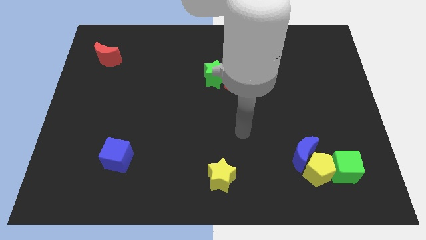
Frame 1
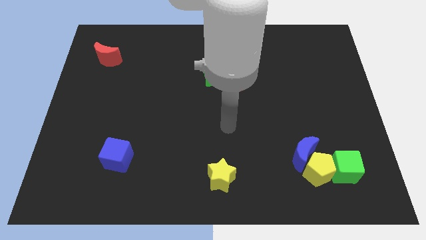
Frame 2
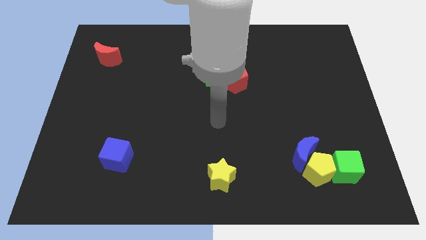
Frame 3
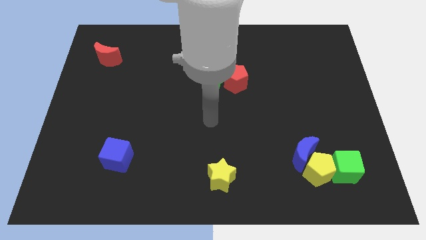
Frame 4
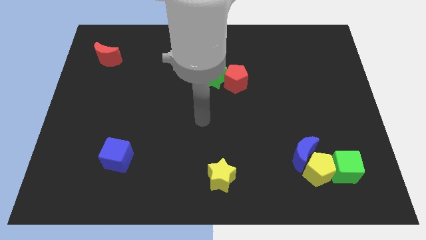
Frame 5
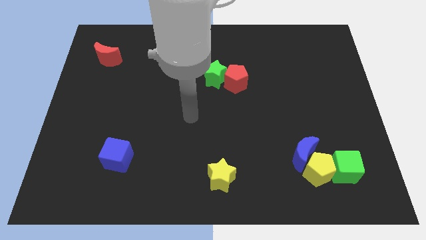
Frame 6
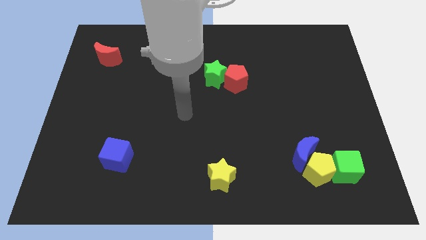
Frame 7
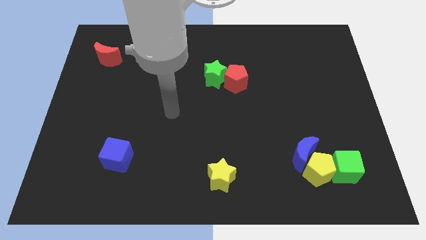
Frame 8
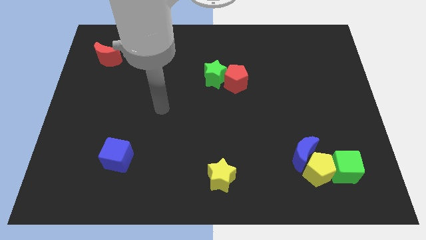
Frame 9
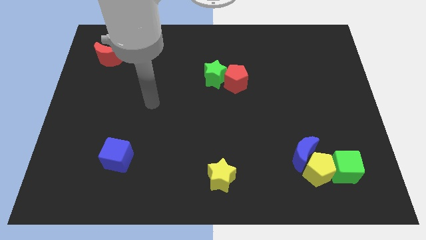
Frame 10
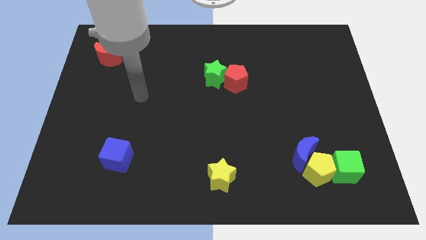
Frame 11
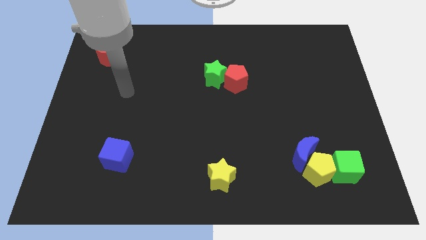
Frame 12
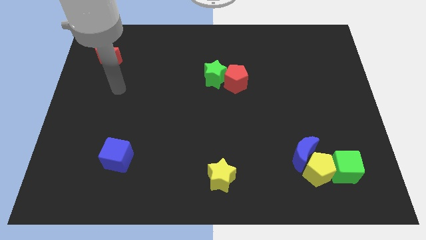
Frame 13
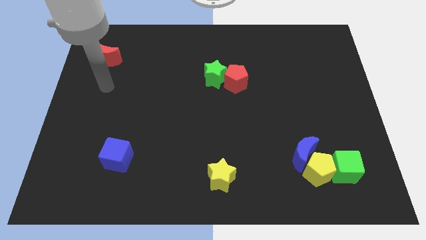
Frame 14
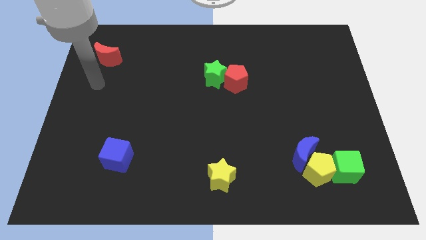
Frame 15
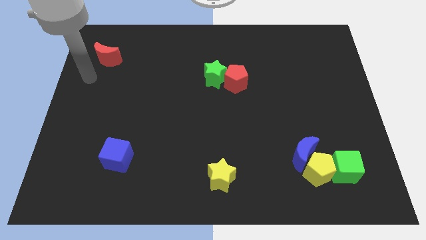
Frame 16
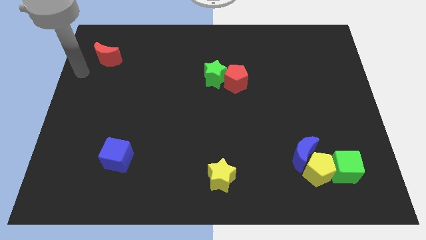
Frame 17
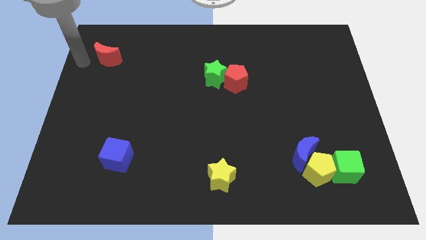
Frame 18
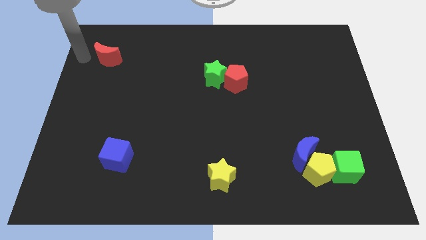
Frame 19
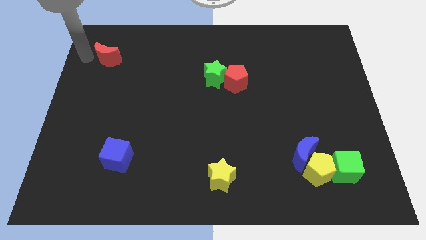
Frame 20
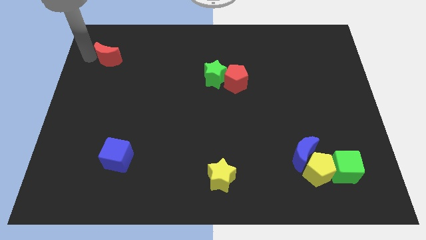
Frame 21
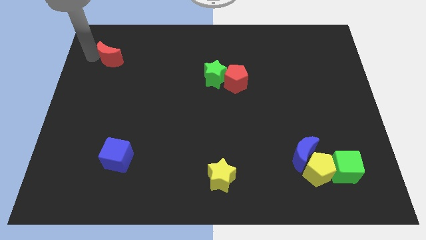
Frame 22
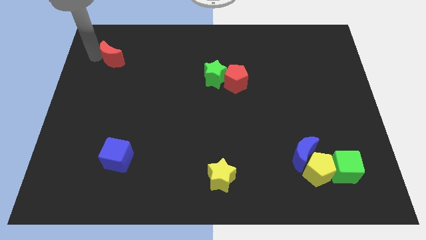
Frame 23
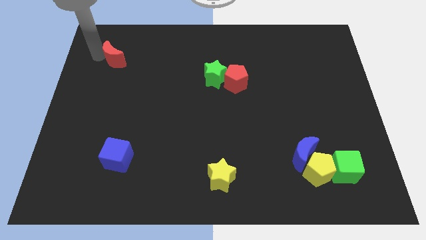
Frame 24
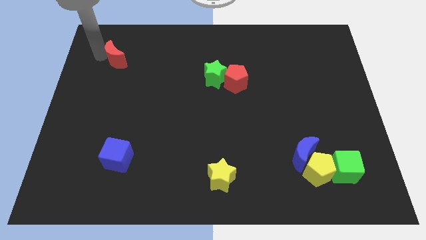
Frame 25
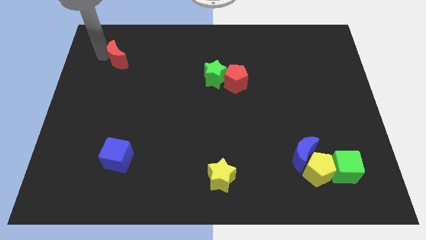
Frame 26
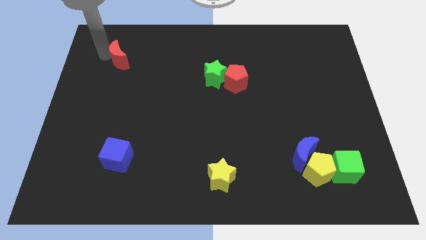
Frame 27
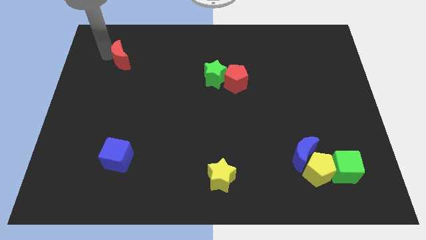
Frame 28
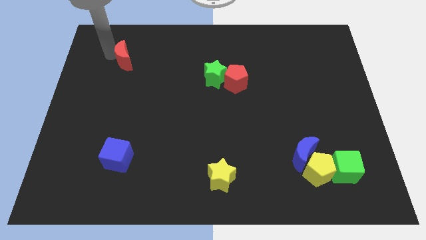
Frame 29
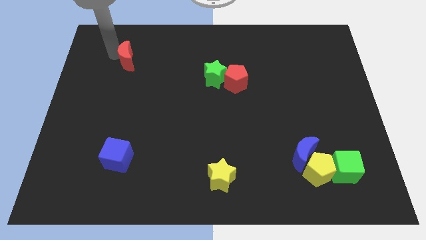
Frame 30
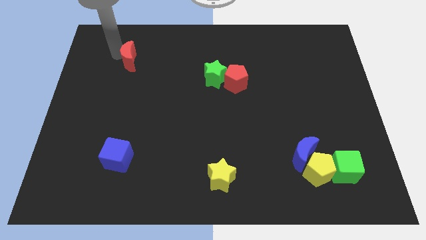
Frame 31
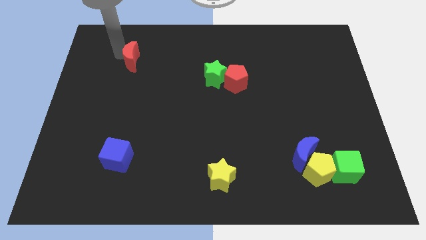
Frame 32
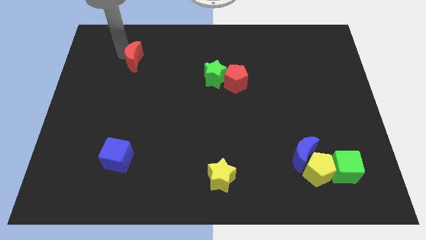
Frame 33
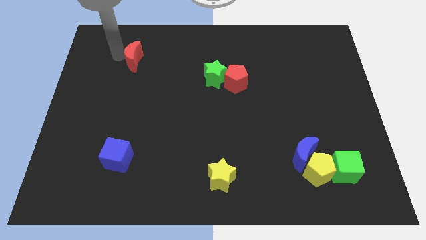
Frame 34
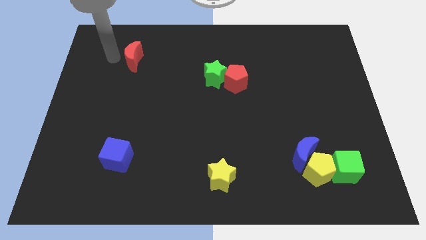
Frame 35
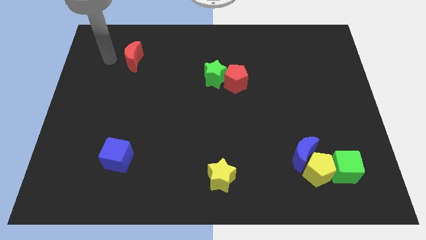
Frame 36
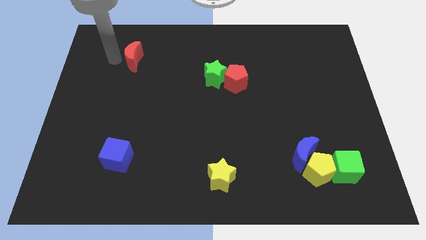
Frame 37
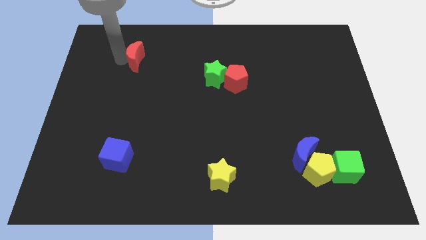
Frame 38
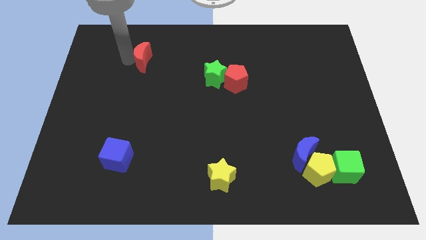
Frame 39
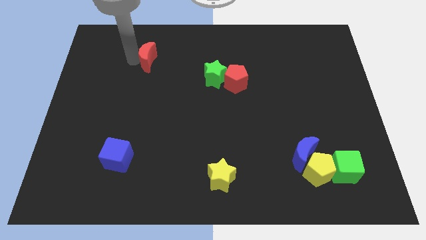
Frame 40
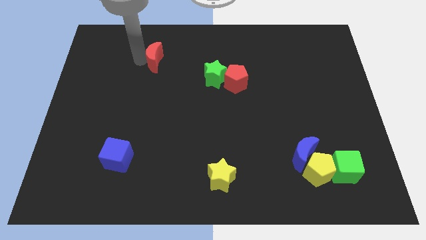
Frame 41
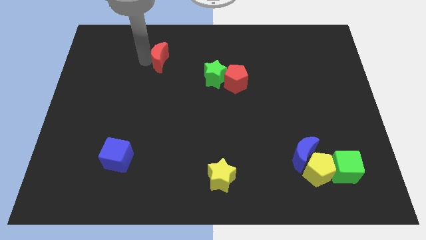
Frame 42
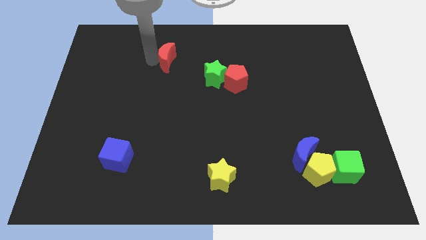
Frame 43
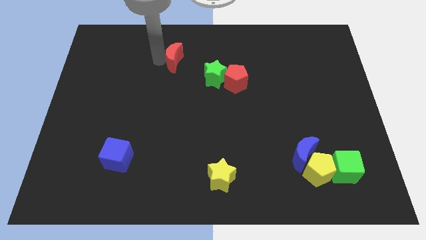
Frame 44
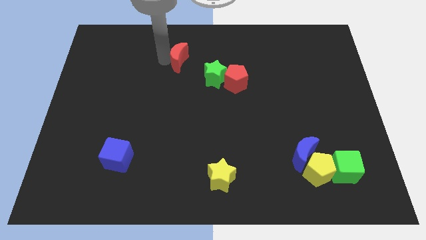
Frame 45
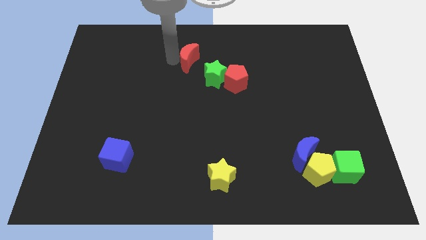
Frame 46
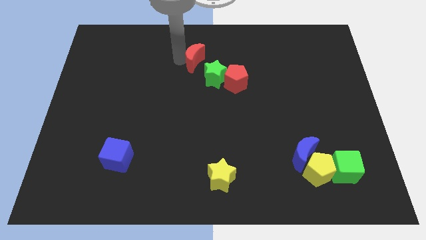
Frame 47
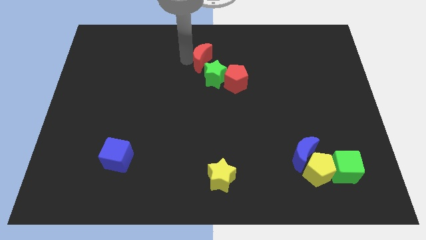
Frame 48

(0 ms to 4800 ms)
push the red moon to the top left of the red pentagon

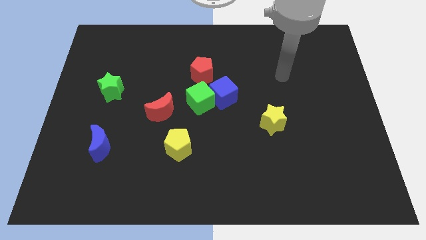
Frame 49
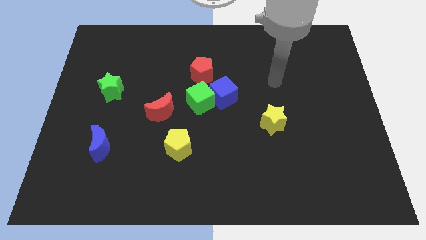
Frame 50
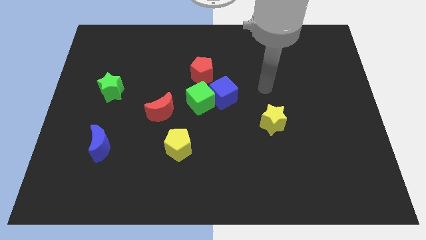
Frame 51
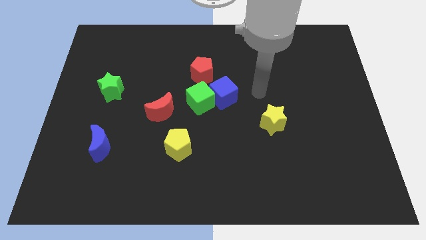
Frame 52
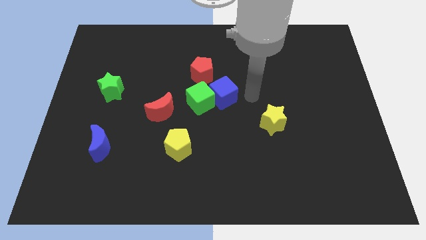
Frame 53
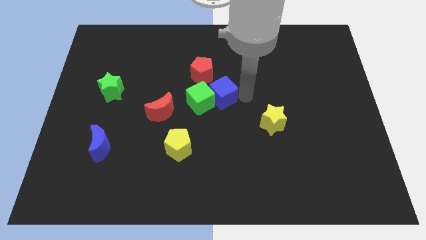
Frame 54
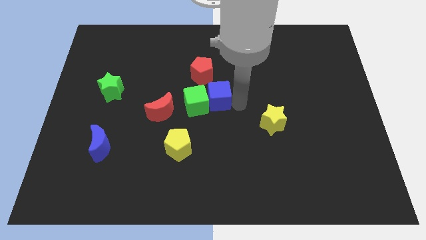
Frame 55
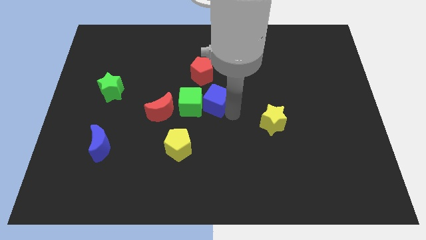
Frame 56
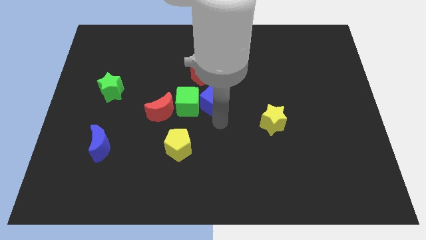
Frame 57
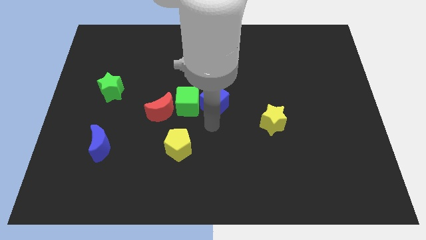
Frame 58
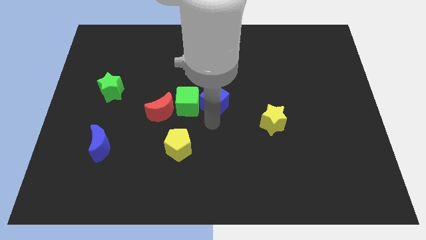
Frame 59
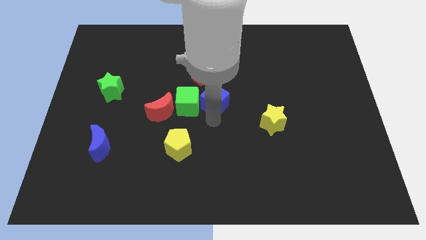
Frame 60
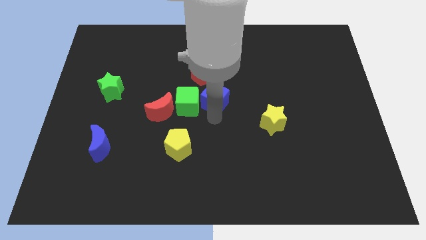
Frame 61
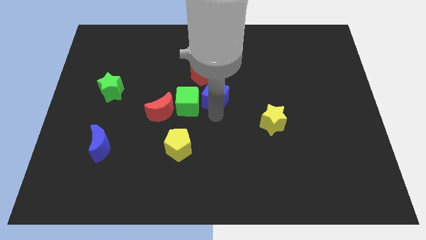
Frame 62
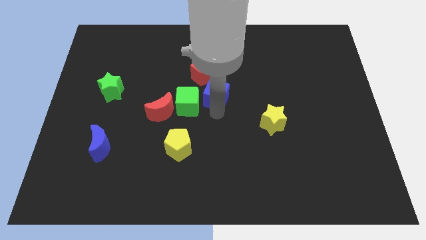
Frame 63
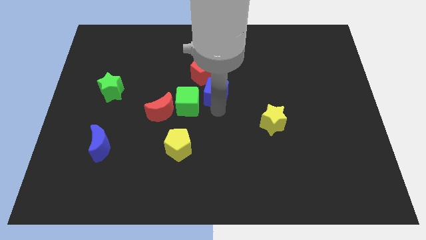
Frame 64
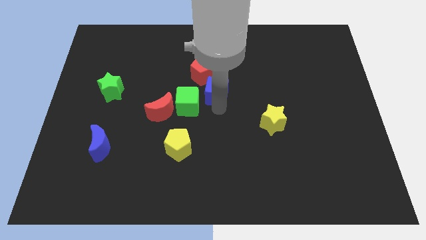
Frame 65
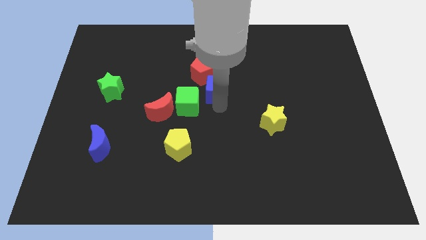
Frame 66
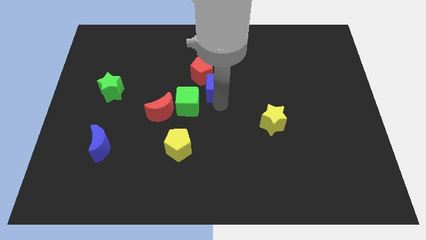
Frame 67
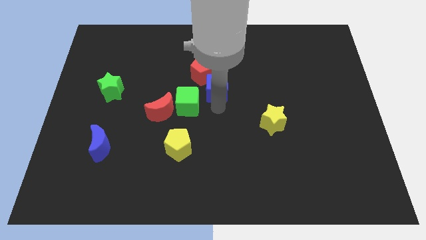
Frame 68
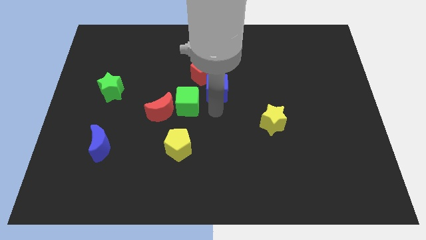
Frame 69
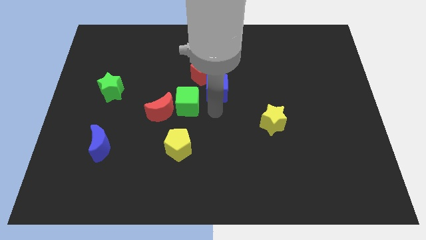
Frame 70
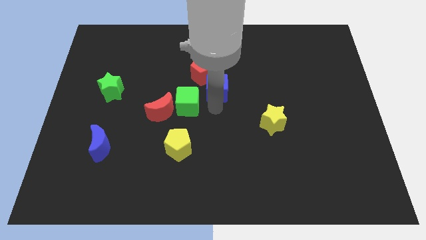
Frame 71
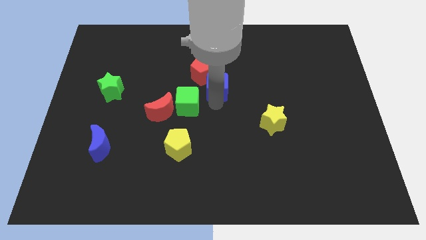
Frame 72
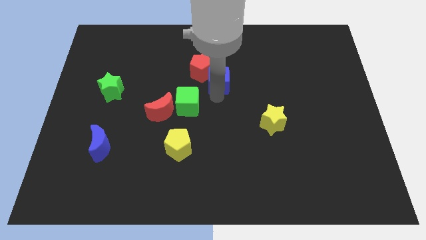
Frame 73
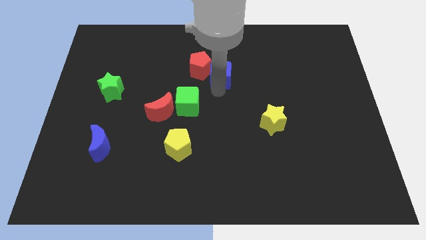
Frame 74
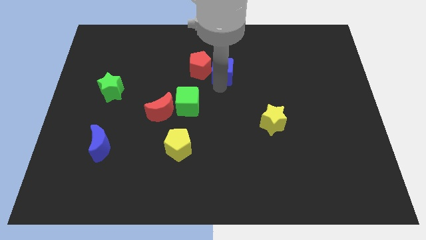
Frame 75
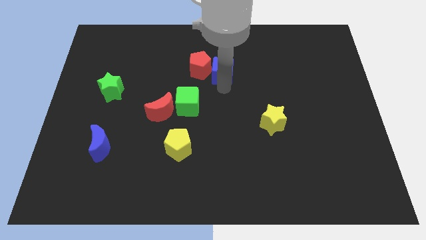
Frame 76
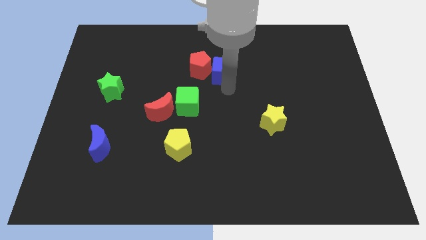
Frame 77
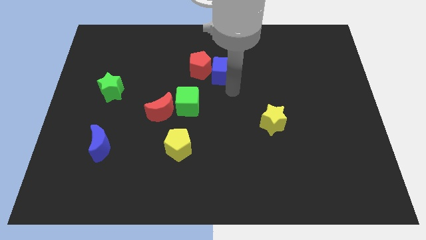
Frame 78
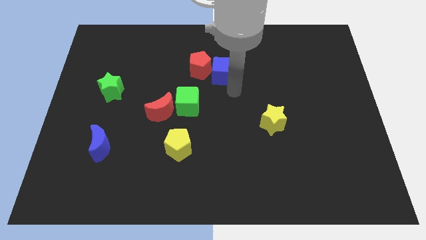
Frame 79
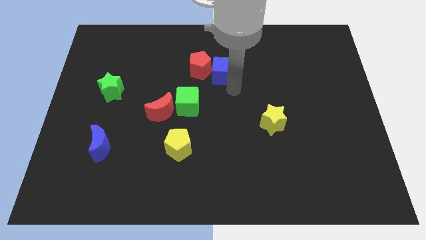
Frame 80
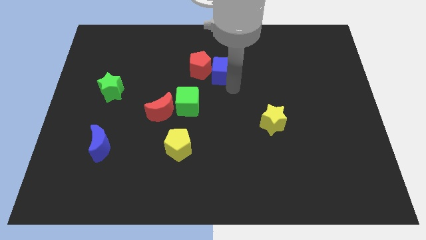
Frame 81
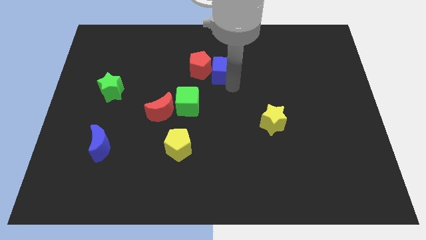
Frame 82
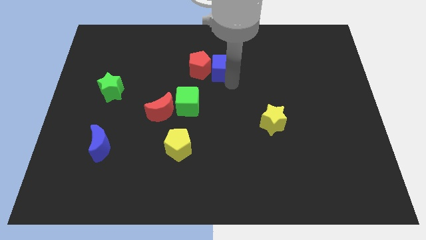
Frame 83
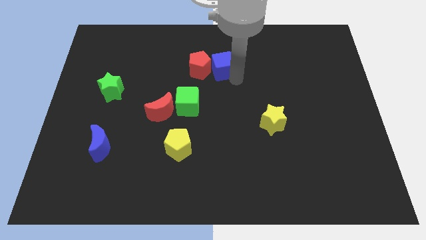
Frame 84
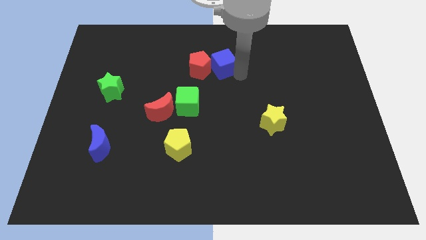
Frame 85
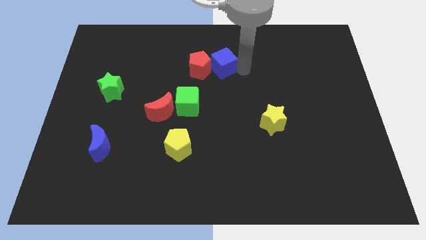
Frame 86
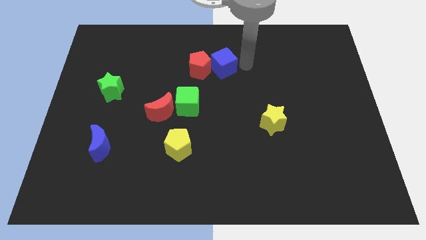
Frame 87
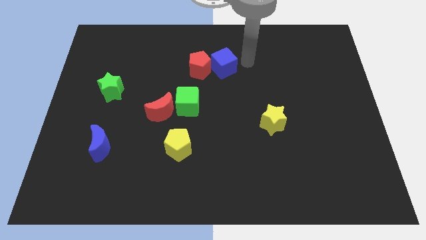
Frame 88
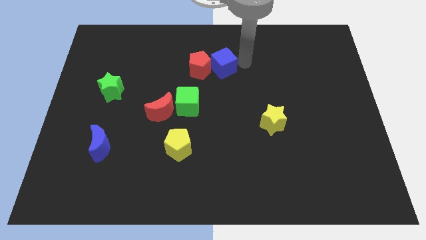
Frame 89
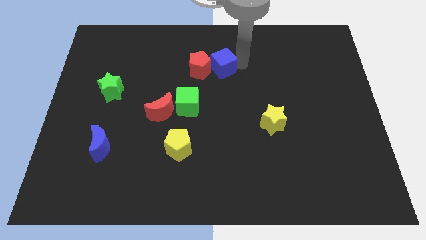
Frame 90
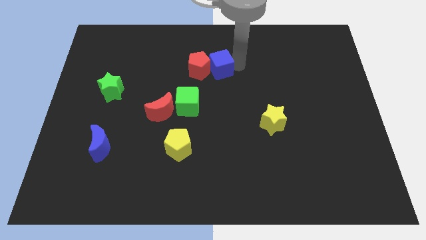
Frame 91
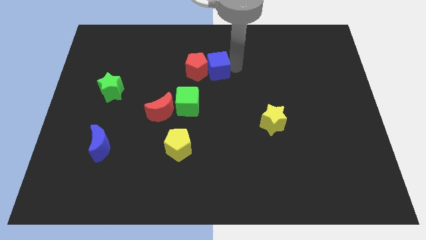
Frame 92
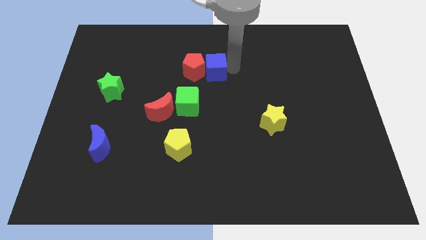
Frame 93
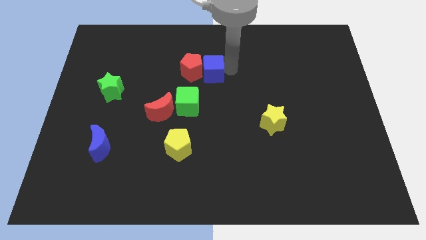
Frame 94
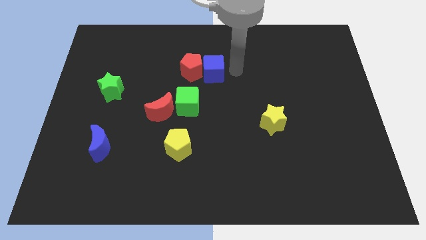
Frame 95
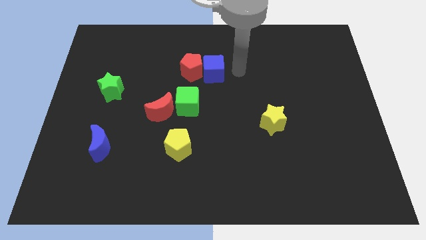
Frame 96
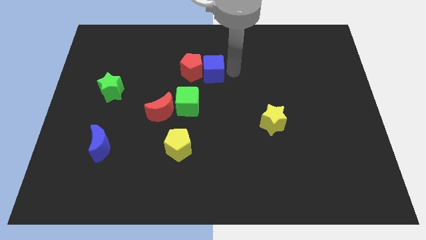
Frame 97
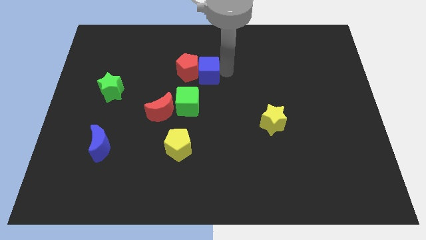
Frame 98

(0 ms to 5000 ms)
put the blue cube to the top side of the green cube
